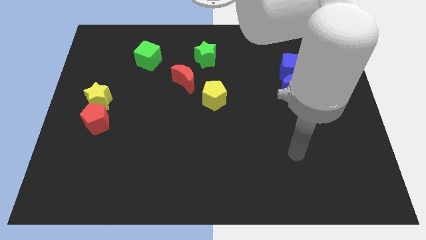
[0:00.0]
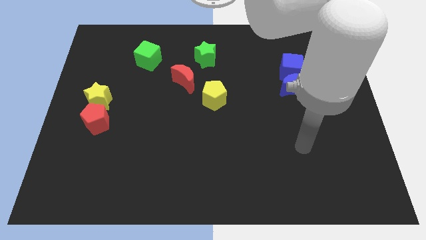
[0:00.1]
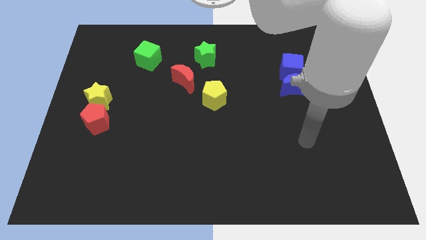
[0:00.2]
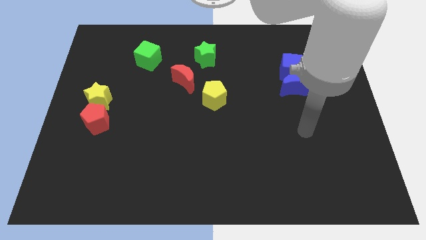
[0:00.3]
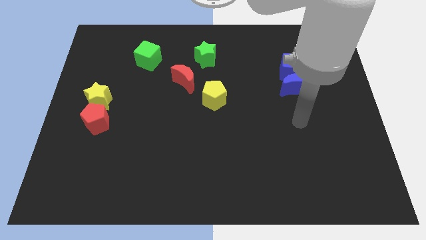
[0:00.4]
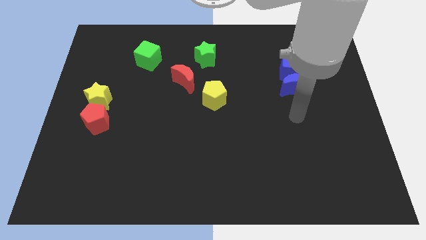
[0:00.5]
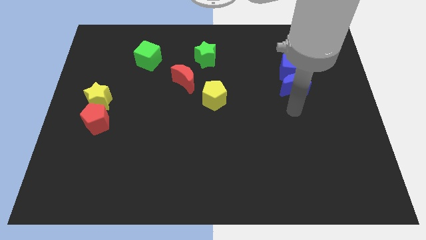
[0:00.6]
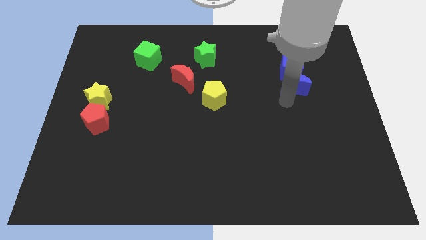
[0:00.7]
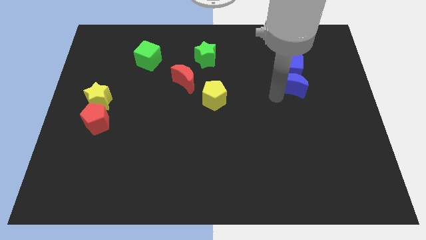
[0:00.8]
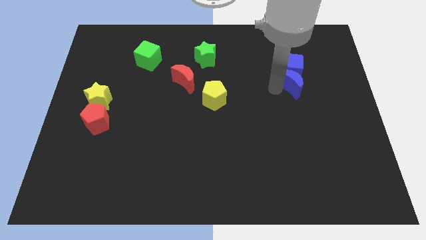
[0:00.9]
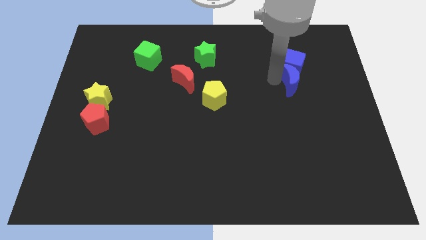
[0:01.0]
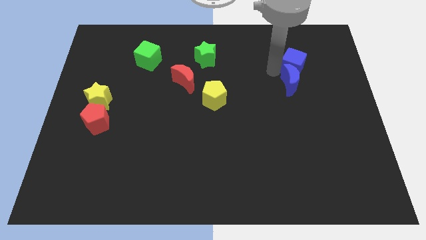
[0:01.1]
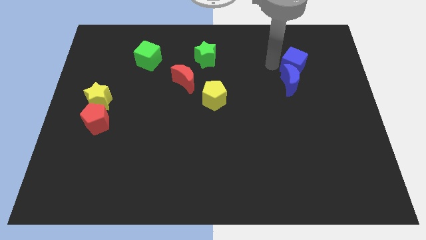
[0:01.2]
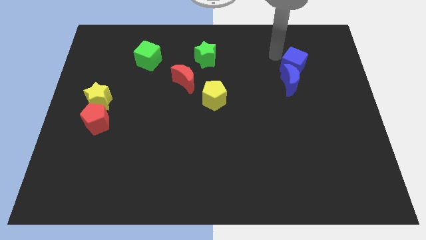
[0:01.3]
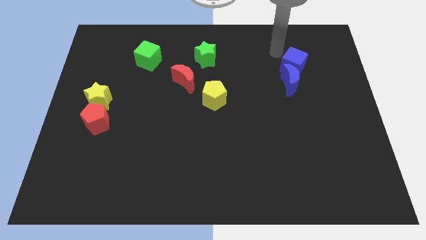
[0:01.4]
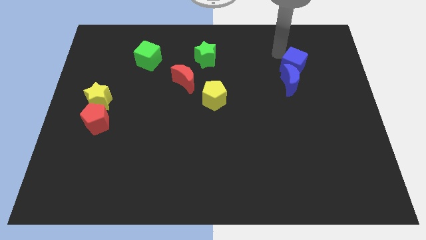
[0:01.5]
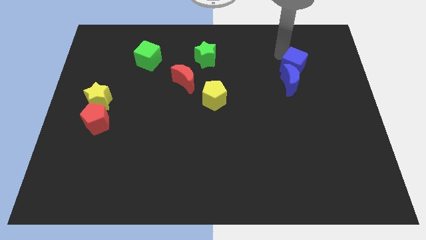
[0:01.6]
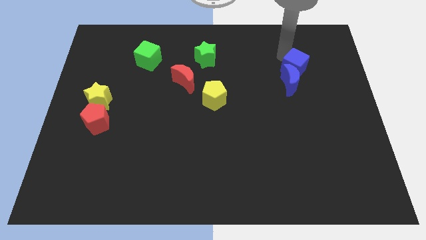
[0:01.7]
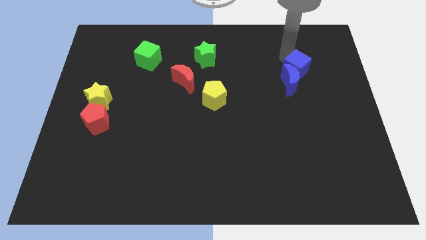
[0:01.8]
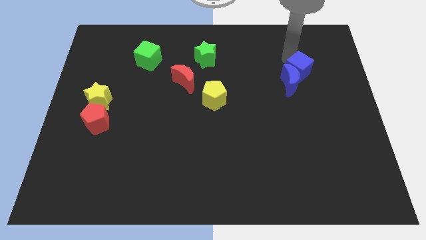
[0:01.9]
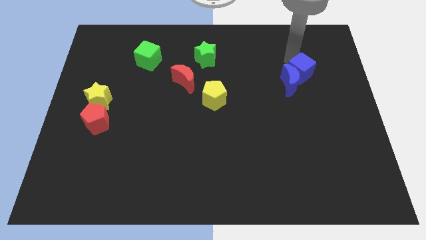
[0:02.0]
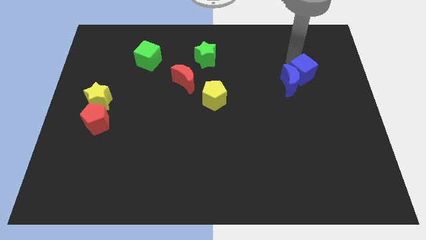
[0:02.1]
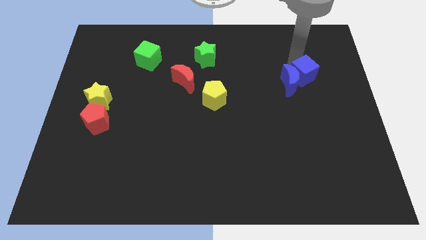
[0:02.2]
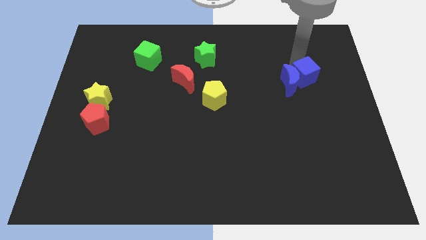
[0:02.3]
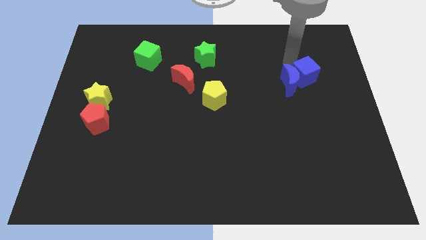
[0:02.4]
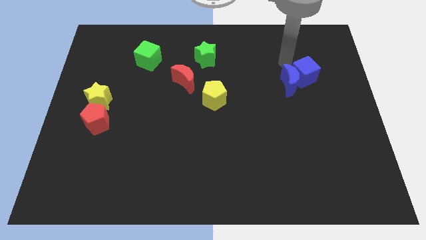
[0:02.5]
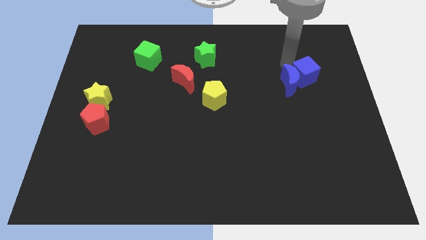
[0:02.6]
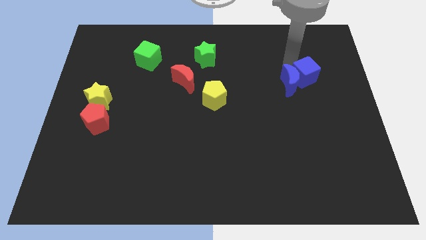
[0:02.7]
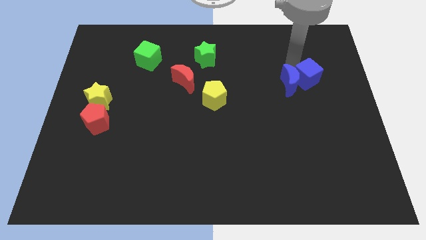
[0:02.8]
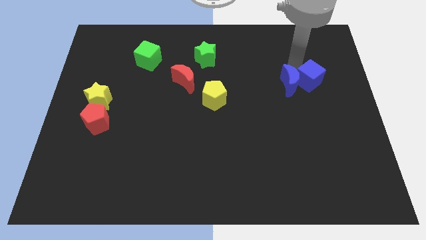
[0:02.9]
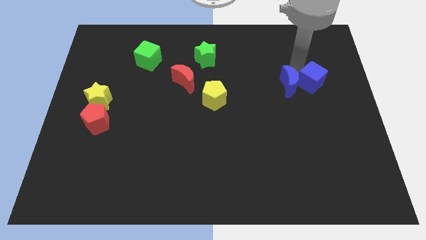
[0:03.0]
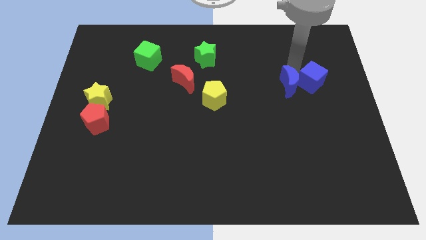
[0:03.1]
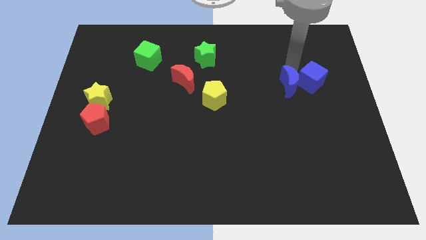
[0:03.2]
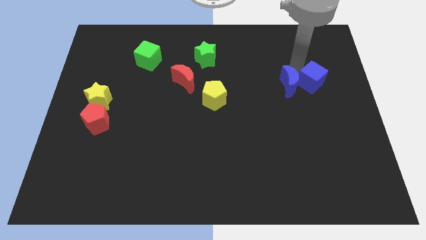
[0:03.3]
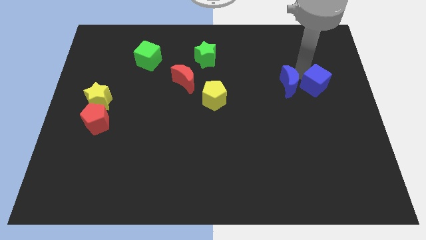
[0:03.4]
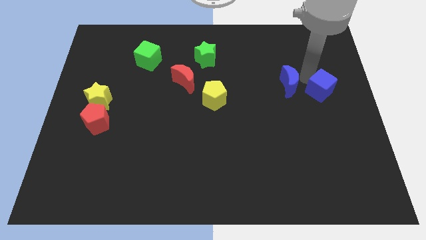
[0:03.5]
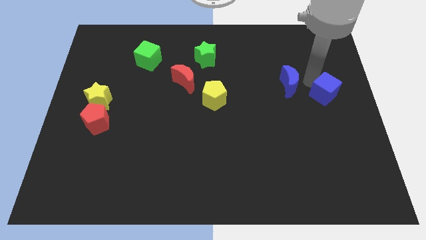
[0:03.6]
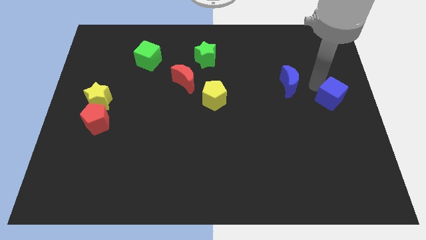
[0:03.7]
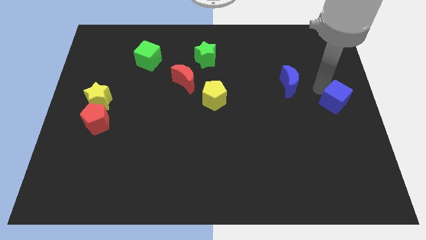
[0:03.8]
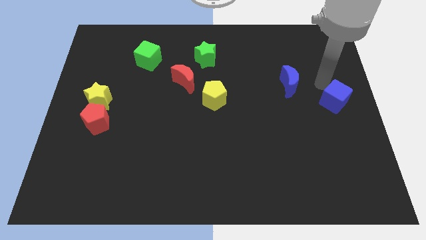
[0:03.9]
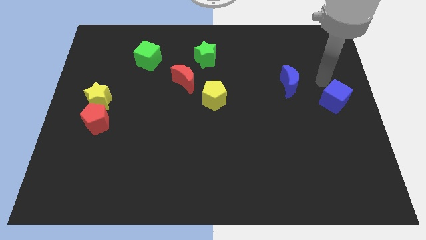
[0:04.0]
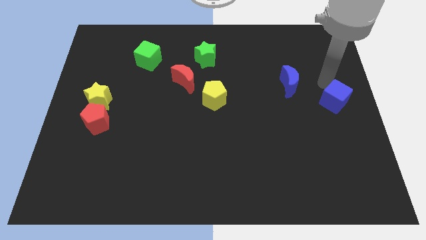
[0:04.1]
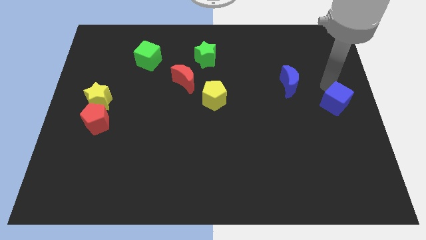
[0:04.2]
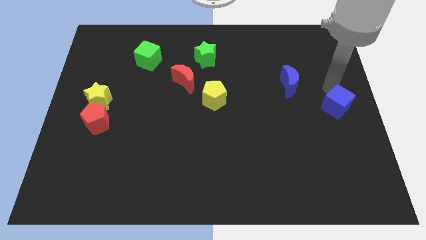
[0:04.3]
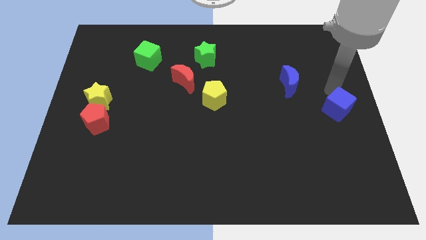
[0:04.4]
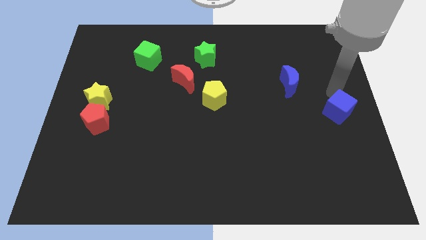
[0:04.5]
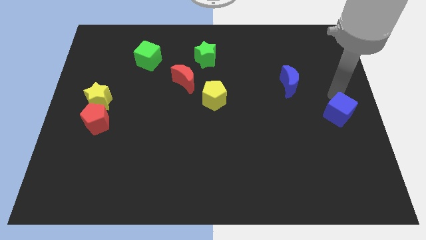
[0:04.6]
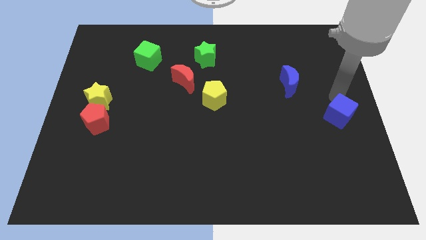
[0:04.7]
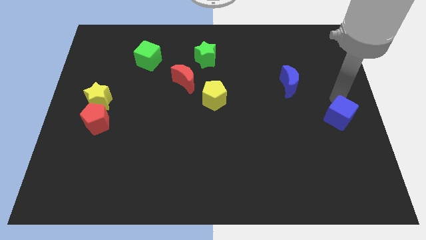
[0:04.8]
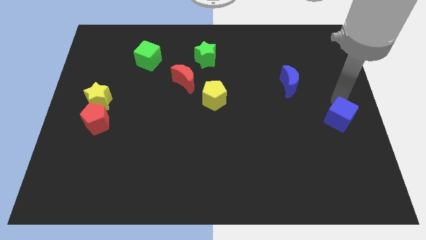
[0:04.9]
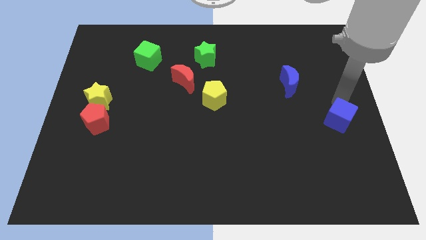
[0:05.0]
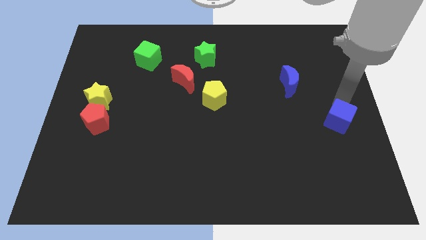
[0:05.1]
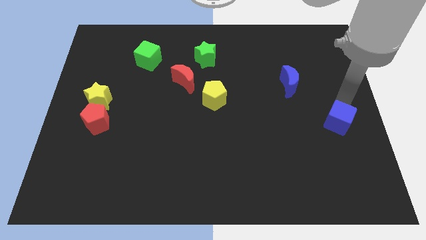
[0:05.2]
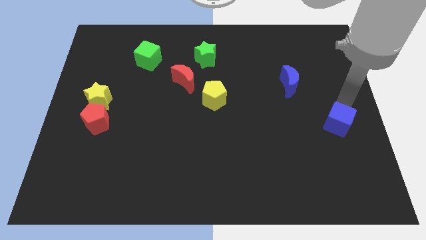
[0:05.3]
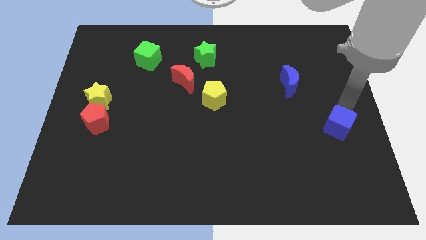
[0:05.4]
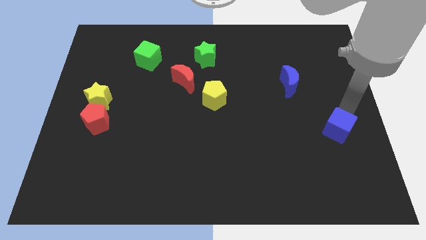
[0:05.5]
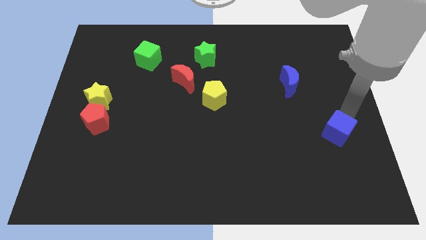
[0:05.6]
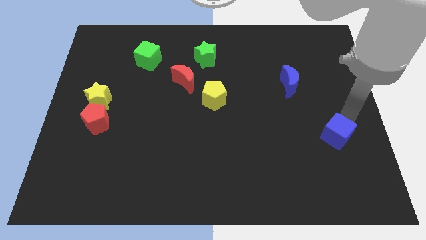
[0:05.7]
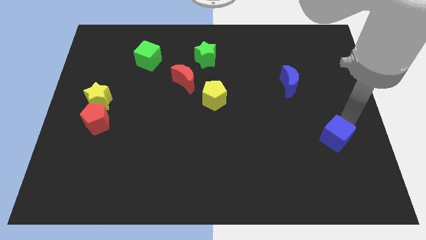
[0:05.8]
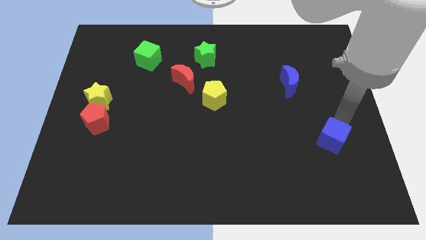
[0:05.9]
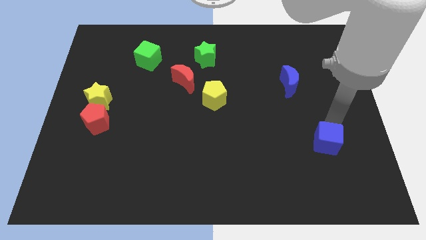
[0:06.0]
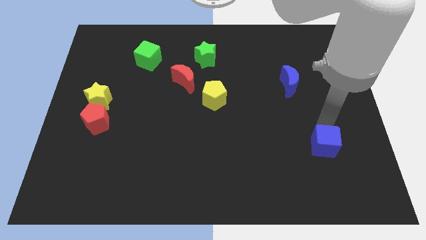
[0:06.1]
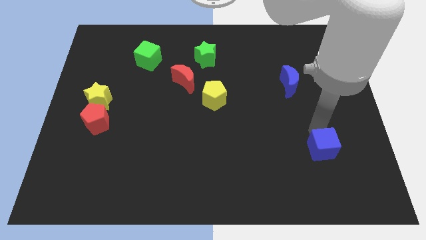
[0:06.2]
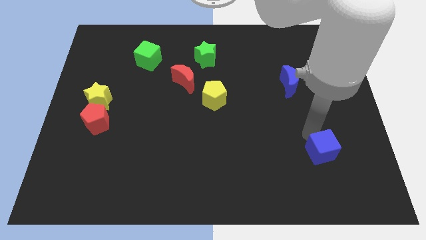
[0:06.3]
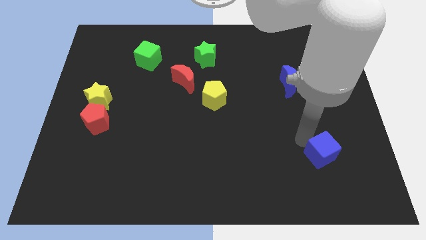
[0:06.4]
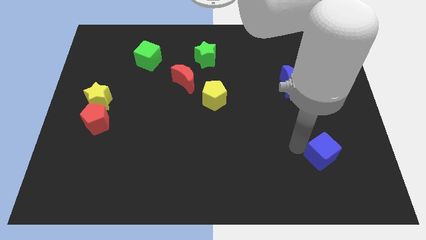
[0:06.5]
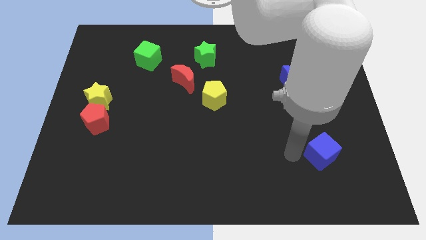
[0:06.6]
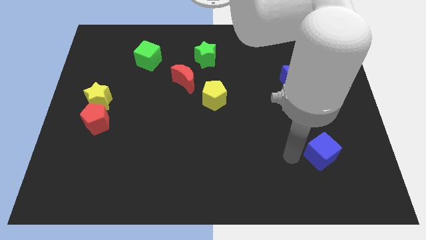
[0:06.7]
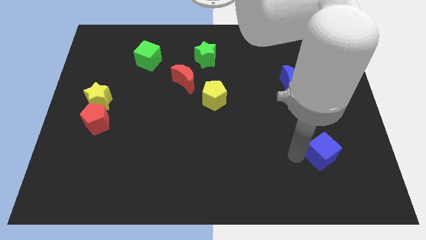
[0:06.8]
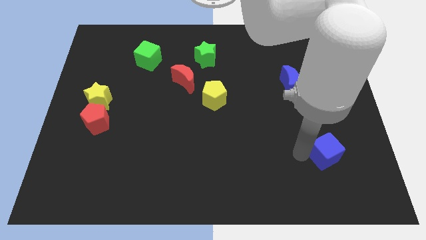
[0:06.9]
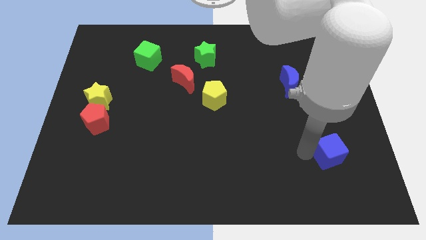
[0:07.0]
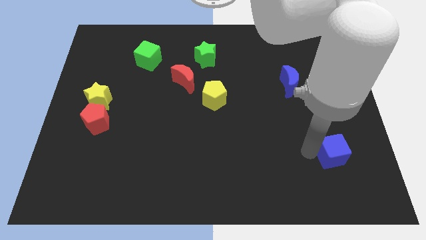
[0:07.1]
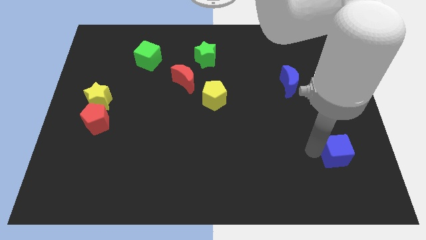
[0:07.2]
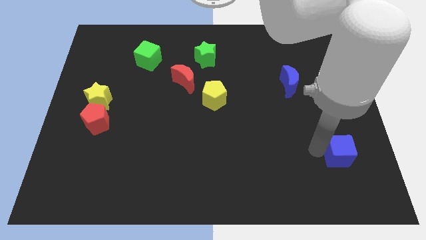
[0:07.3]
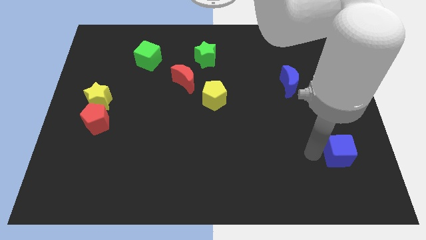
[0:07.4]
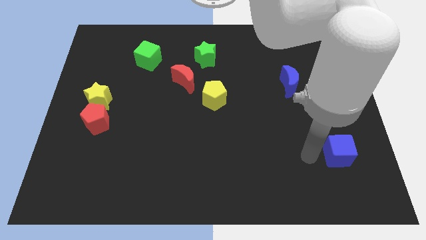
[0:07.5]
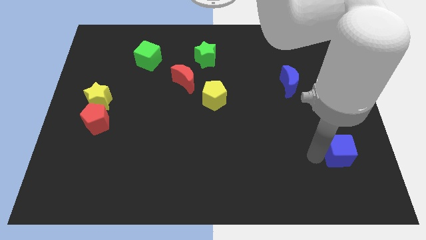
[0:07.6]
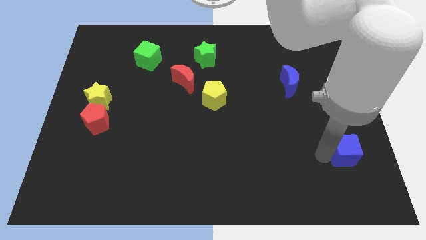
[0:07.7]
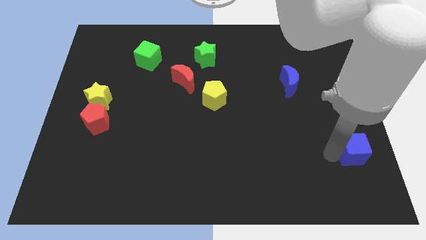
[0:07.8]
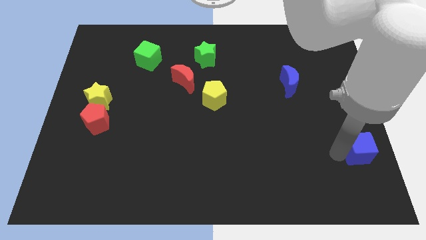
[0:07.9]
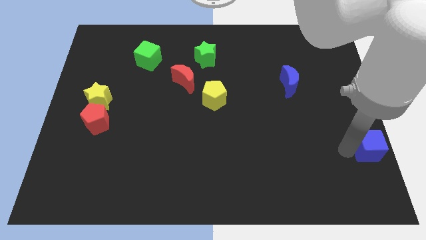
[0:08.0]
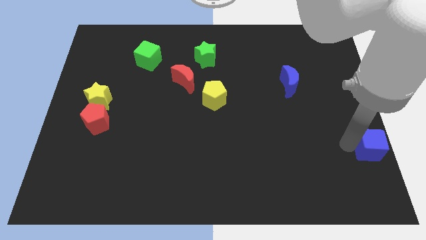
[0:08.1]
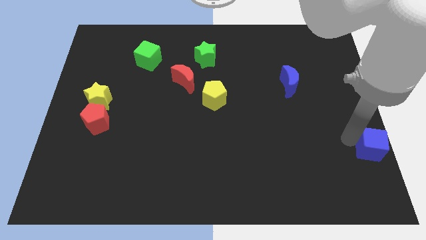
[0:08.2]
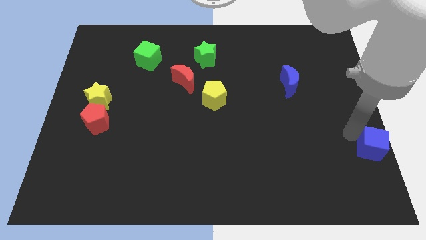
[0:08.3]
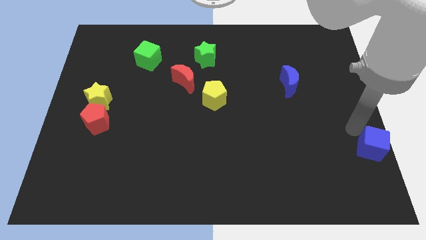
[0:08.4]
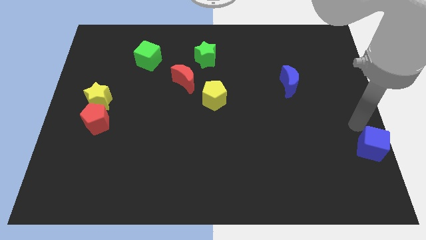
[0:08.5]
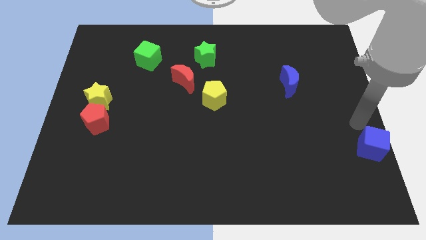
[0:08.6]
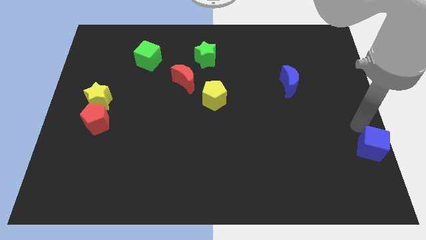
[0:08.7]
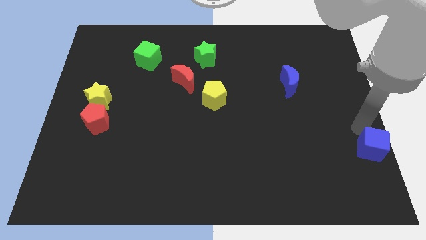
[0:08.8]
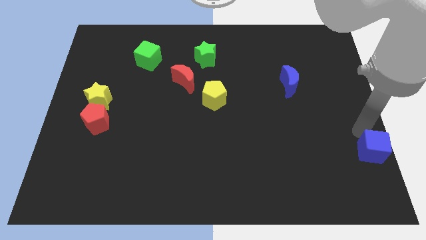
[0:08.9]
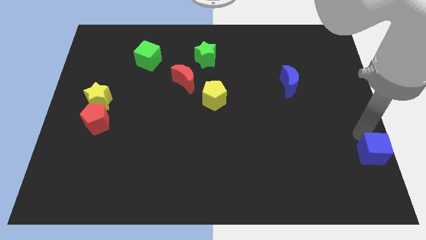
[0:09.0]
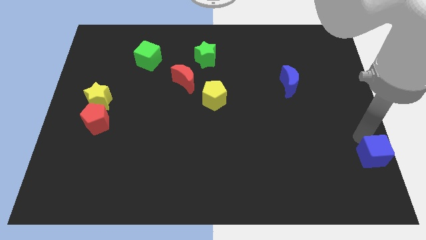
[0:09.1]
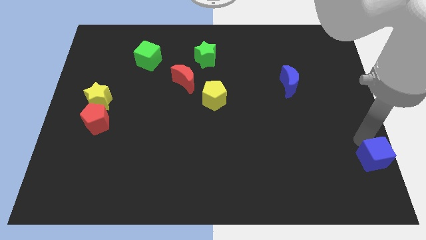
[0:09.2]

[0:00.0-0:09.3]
slide the blue cube to the bottom right
